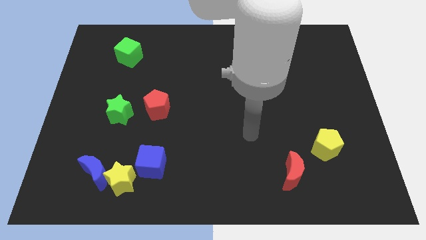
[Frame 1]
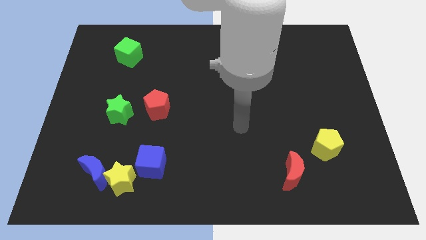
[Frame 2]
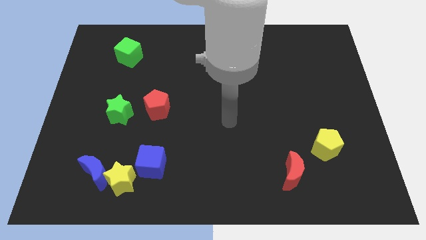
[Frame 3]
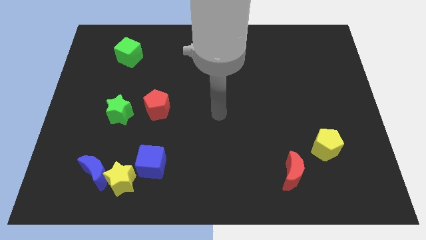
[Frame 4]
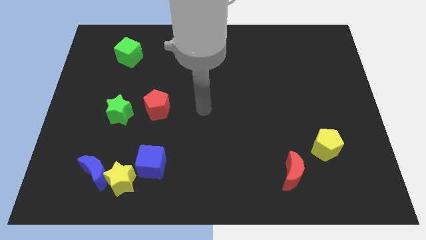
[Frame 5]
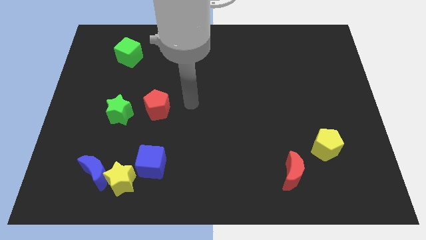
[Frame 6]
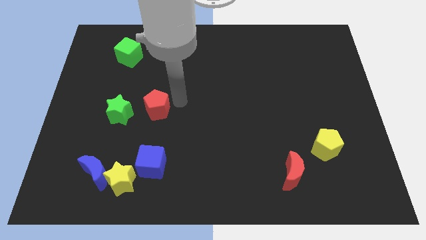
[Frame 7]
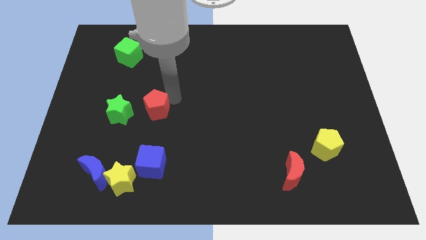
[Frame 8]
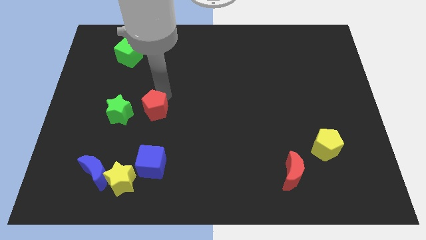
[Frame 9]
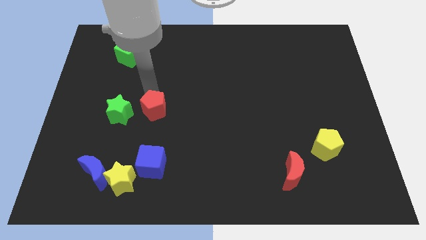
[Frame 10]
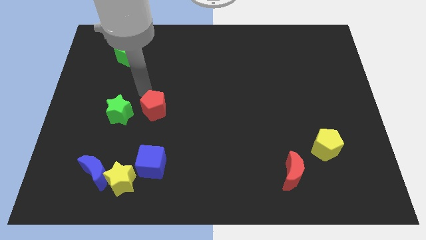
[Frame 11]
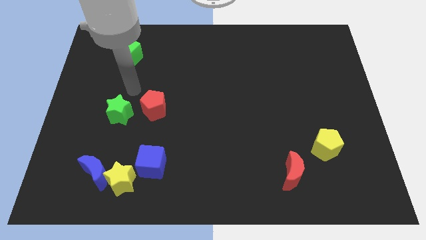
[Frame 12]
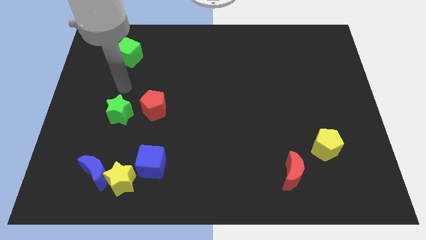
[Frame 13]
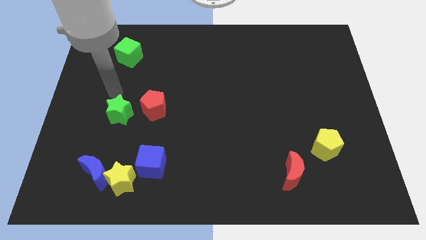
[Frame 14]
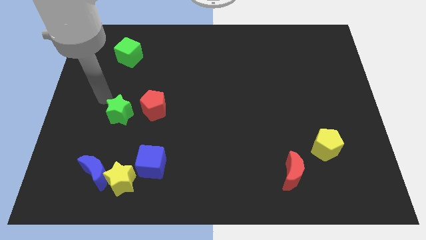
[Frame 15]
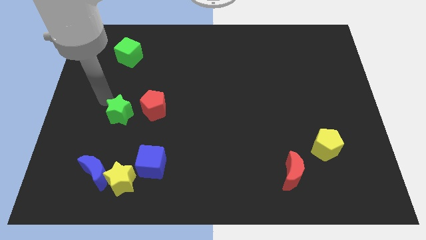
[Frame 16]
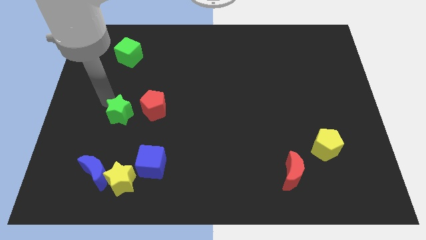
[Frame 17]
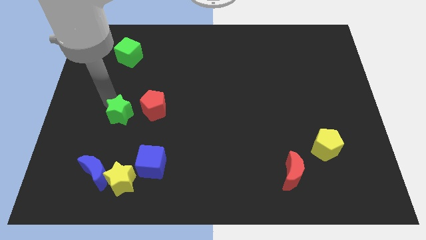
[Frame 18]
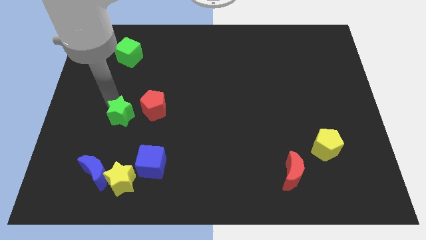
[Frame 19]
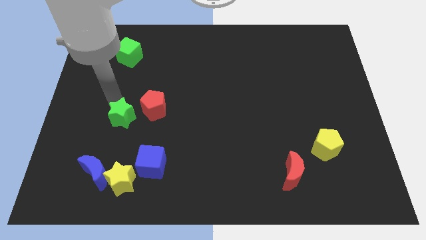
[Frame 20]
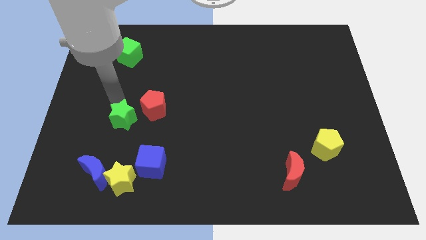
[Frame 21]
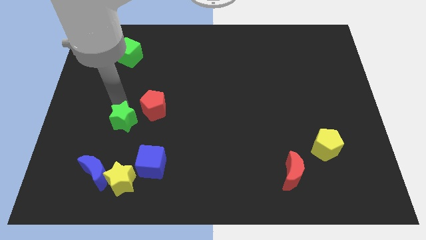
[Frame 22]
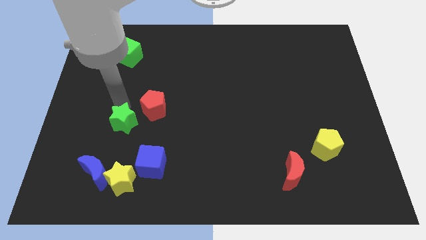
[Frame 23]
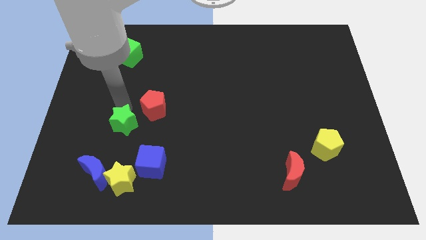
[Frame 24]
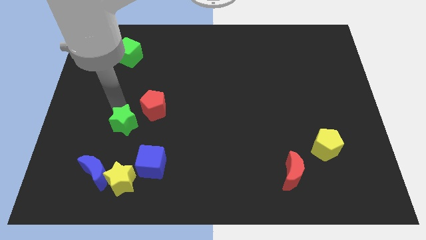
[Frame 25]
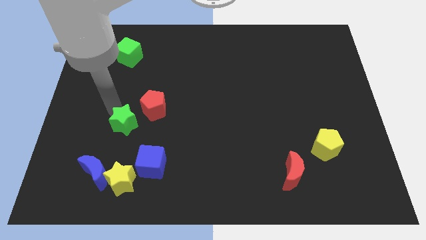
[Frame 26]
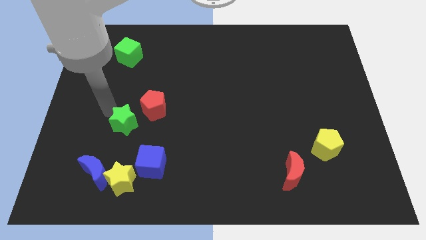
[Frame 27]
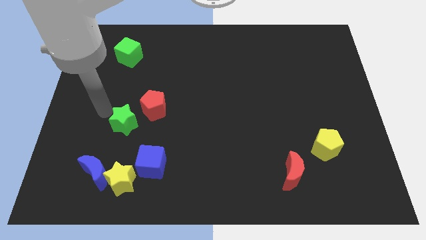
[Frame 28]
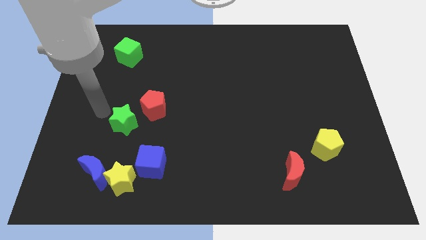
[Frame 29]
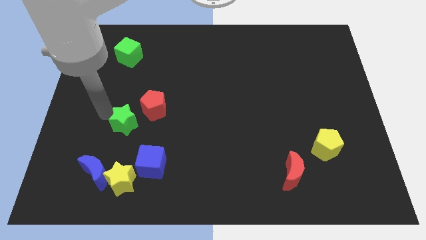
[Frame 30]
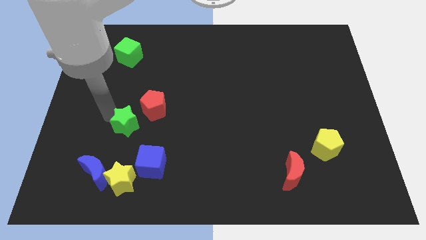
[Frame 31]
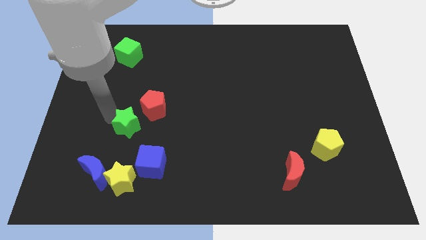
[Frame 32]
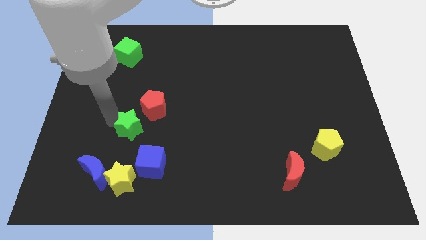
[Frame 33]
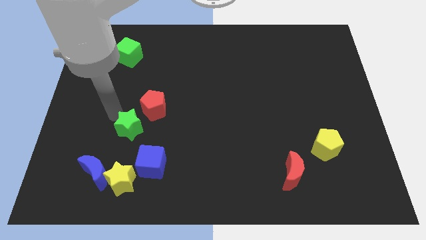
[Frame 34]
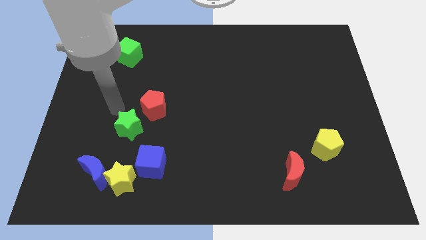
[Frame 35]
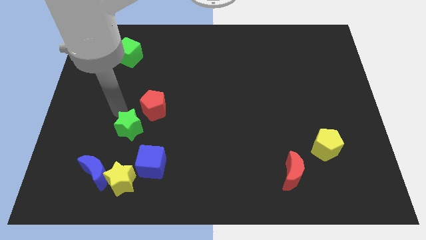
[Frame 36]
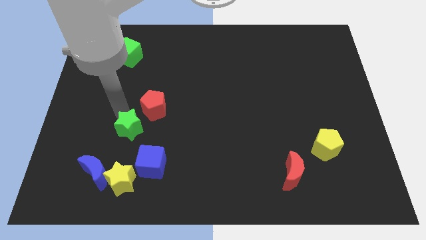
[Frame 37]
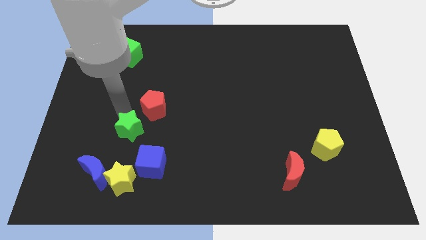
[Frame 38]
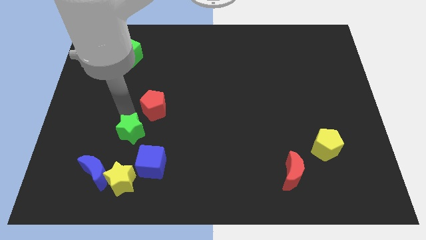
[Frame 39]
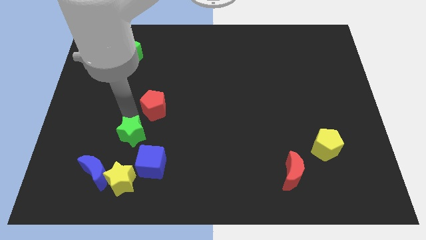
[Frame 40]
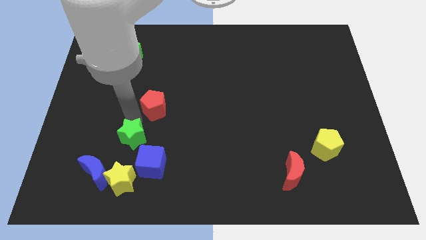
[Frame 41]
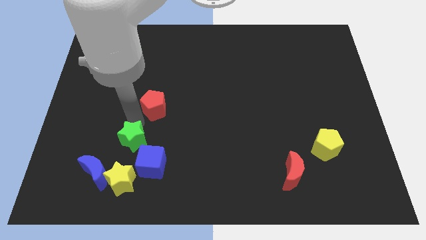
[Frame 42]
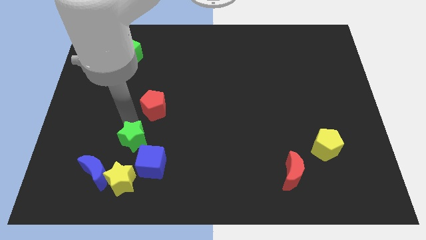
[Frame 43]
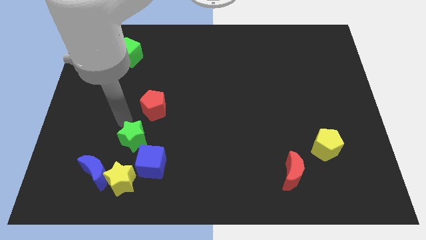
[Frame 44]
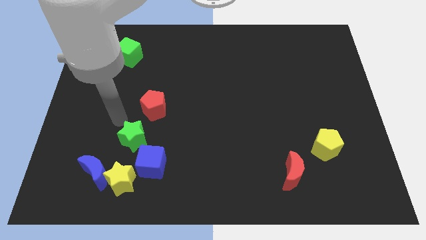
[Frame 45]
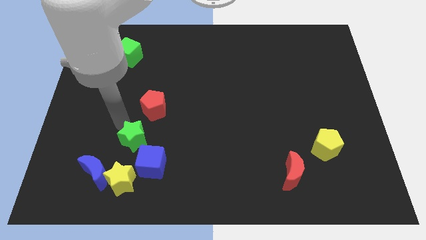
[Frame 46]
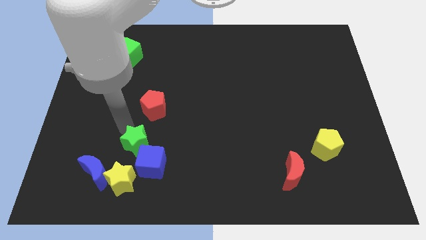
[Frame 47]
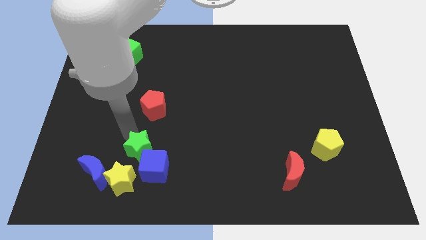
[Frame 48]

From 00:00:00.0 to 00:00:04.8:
slide the green star to the top right of the yellow star

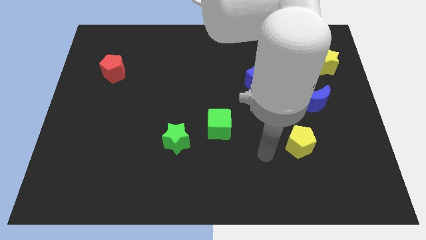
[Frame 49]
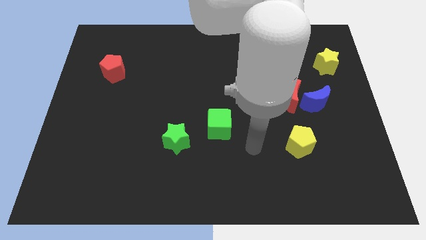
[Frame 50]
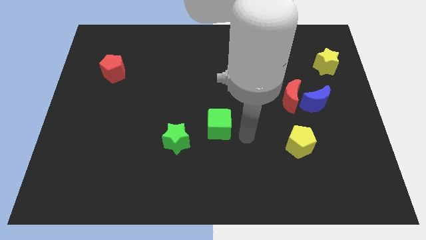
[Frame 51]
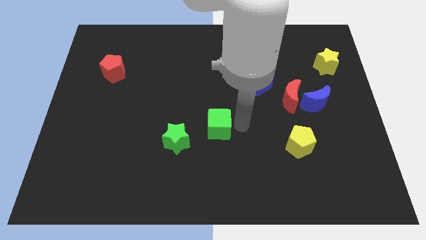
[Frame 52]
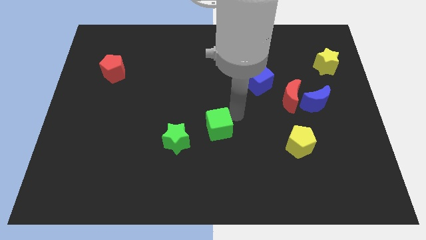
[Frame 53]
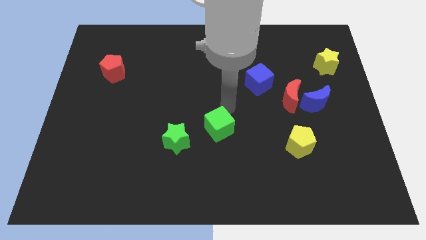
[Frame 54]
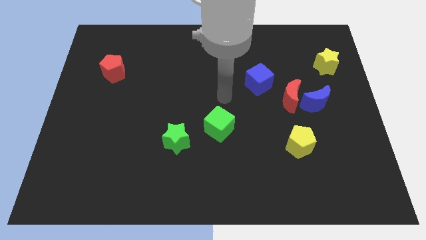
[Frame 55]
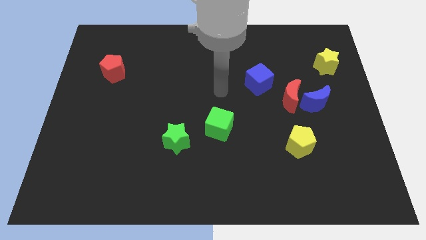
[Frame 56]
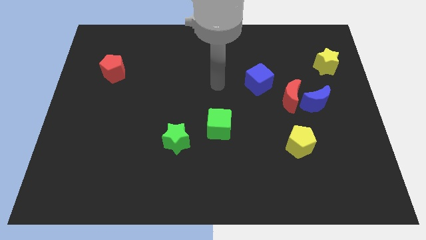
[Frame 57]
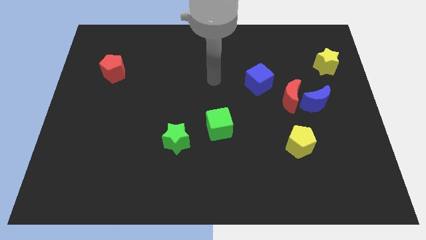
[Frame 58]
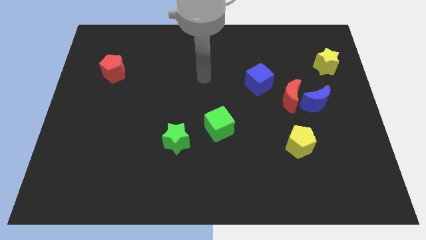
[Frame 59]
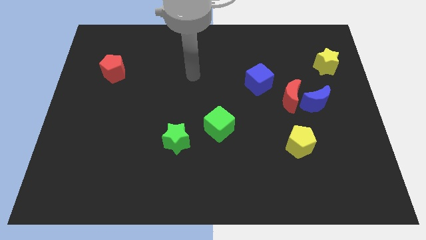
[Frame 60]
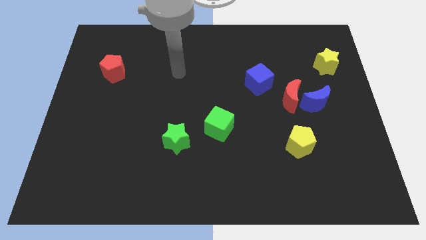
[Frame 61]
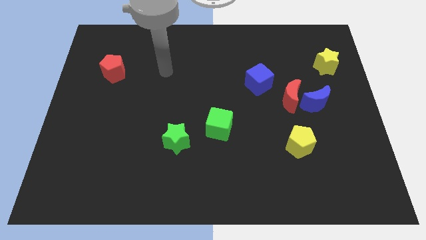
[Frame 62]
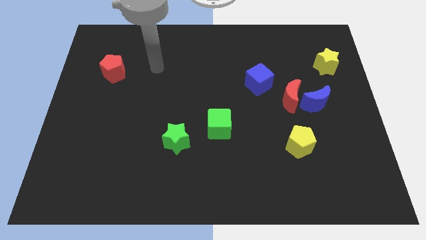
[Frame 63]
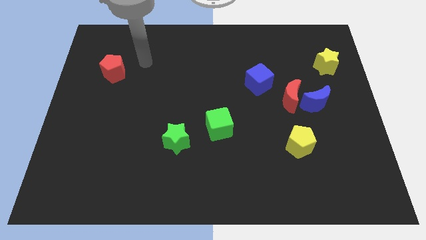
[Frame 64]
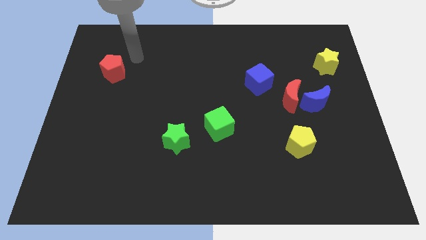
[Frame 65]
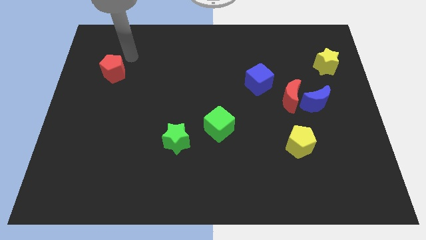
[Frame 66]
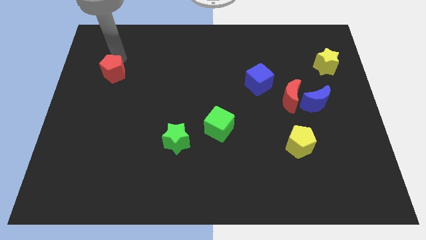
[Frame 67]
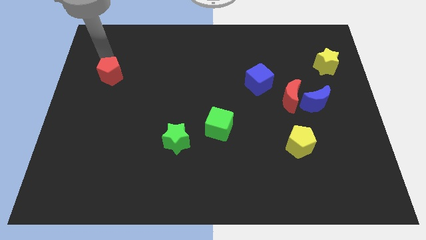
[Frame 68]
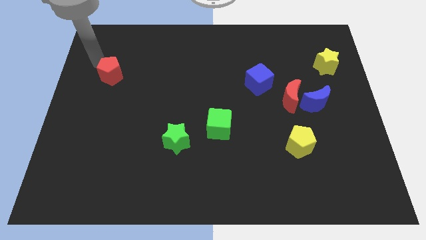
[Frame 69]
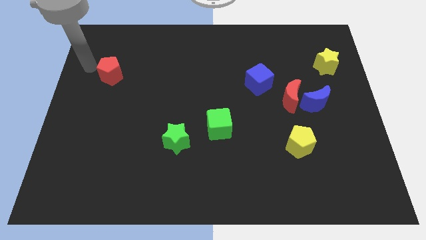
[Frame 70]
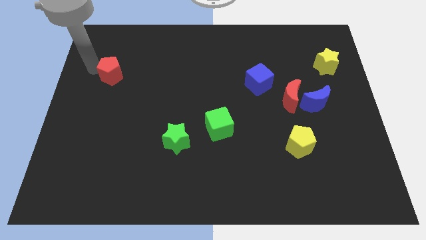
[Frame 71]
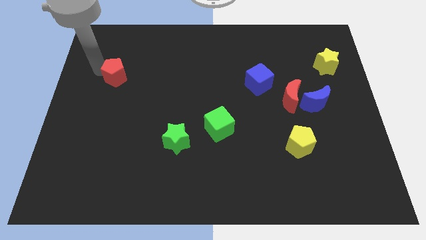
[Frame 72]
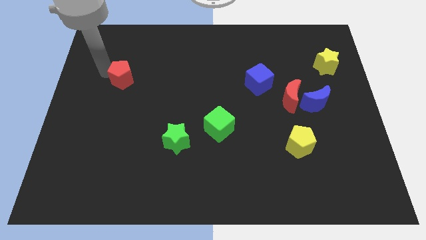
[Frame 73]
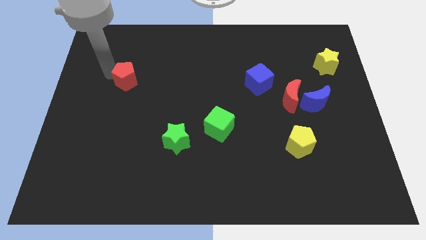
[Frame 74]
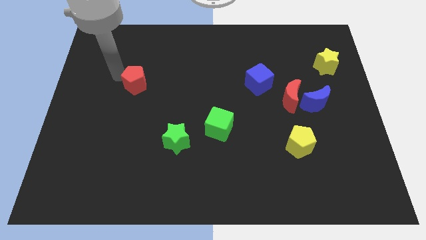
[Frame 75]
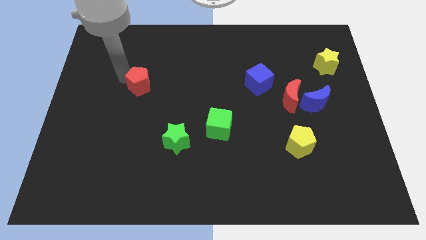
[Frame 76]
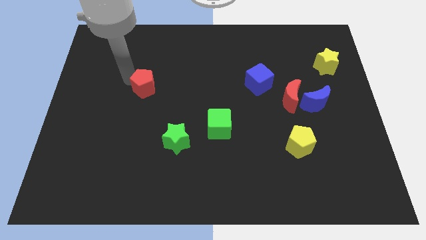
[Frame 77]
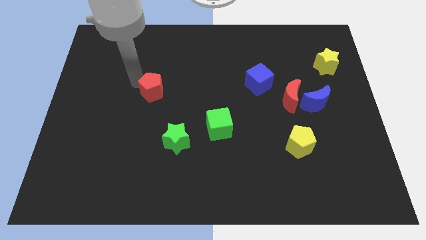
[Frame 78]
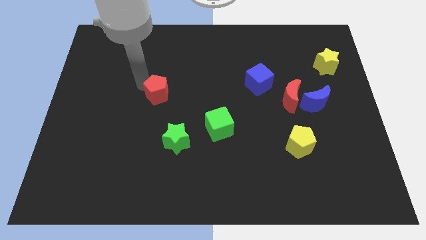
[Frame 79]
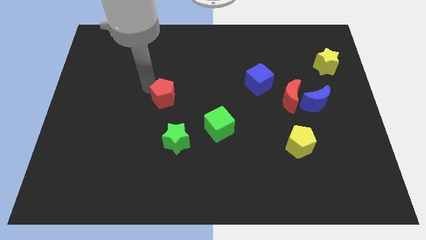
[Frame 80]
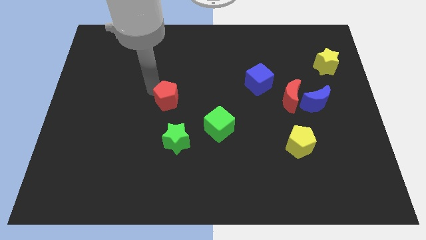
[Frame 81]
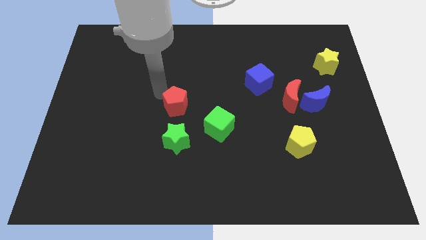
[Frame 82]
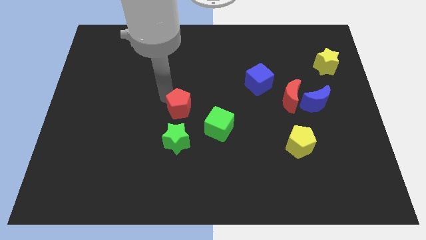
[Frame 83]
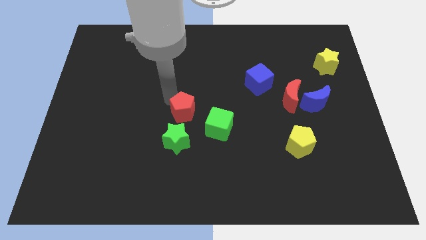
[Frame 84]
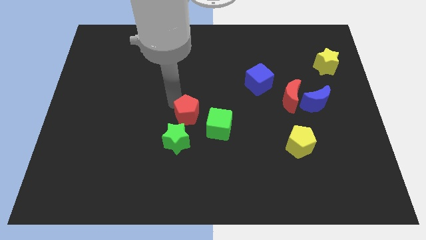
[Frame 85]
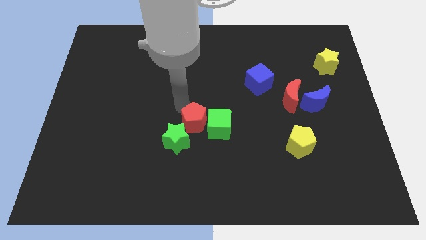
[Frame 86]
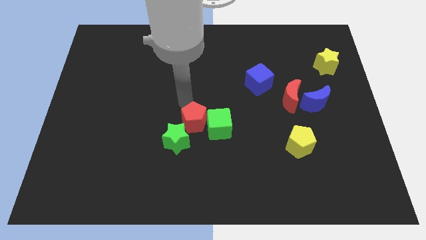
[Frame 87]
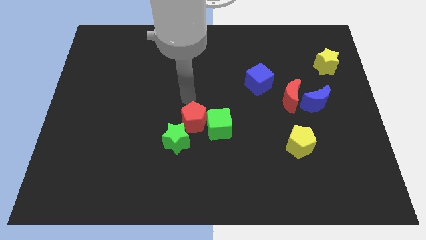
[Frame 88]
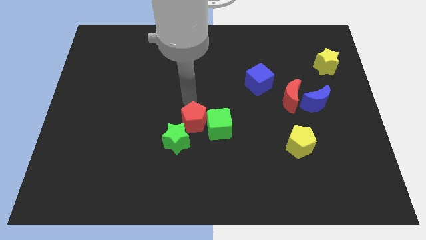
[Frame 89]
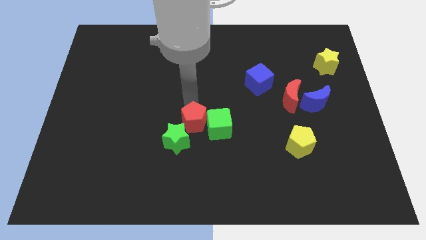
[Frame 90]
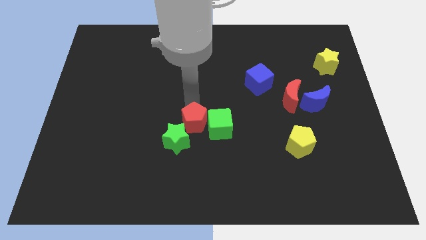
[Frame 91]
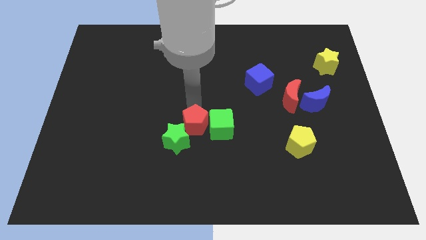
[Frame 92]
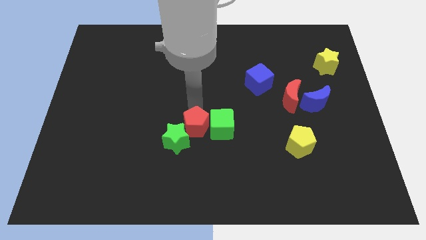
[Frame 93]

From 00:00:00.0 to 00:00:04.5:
push the red pentagon to the right side of the green star
